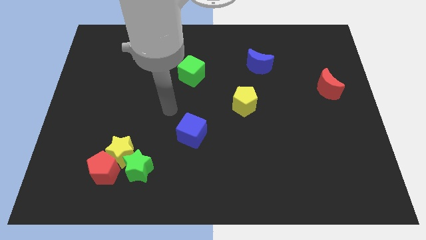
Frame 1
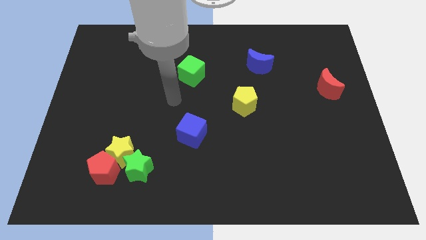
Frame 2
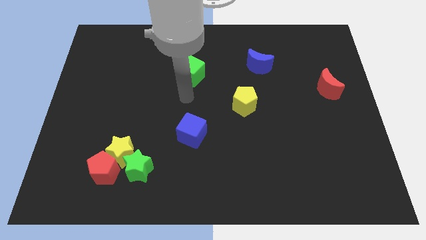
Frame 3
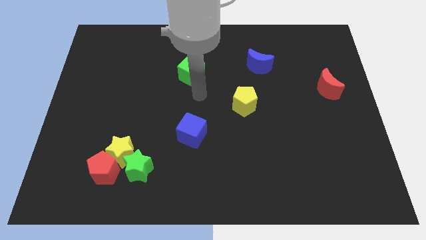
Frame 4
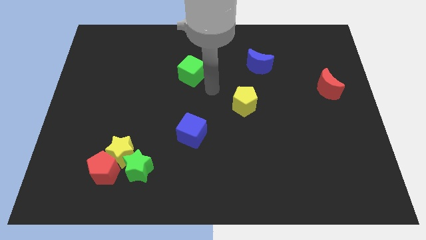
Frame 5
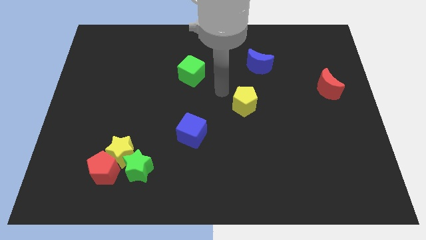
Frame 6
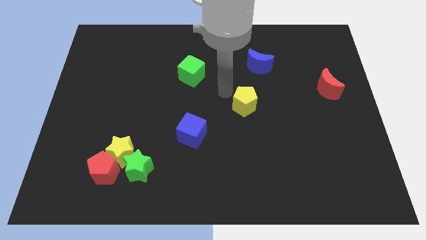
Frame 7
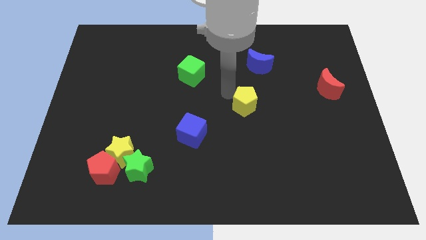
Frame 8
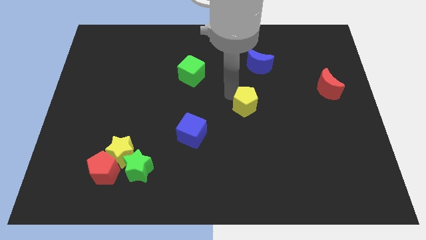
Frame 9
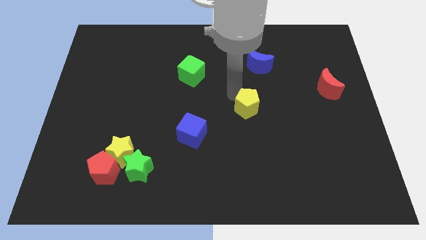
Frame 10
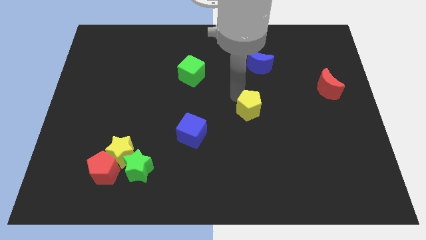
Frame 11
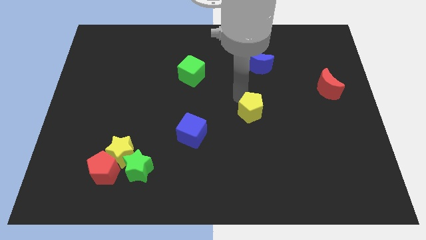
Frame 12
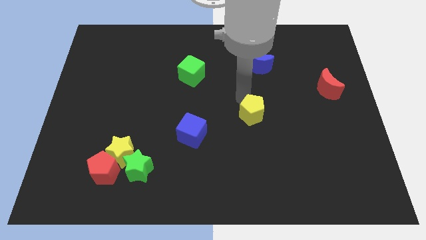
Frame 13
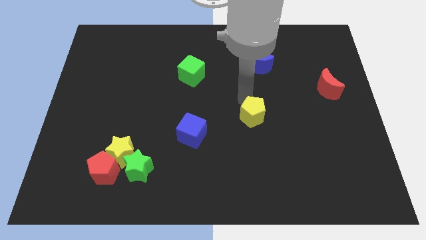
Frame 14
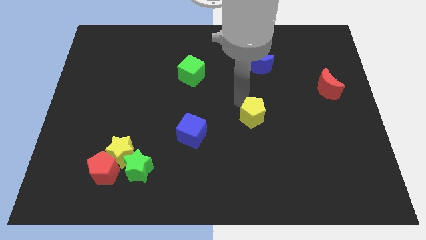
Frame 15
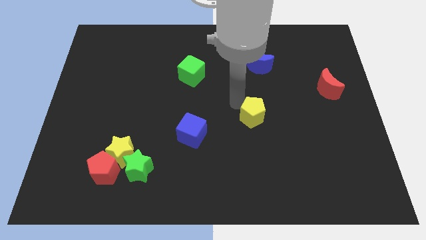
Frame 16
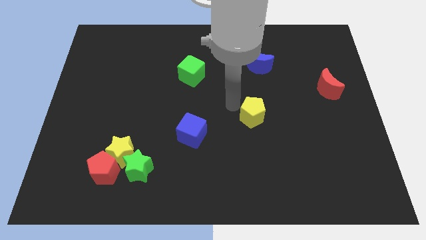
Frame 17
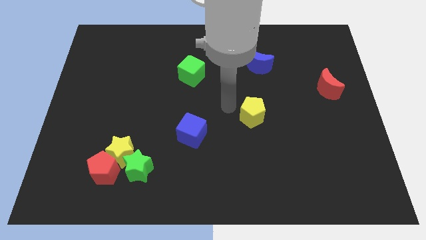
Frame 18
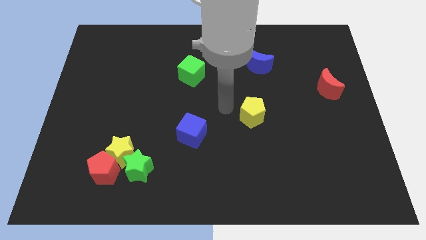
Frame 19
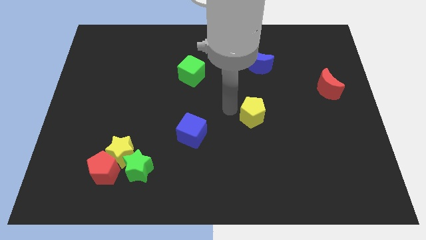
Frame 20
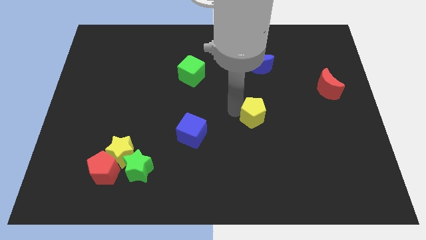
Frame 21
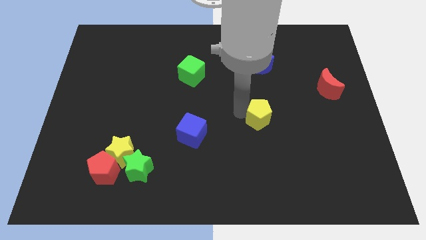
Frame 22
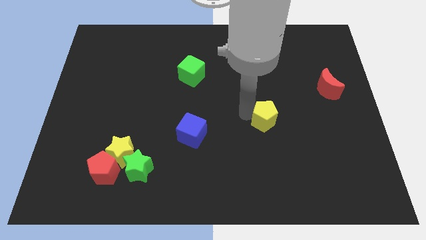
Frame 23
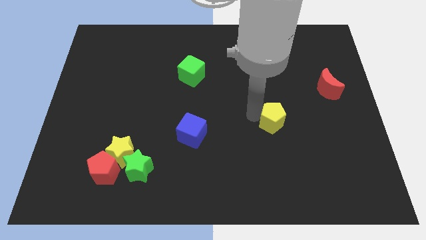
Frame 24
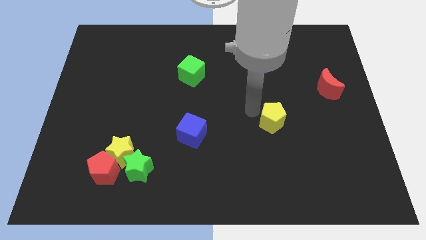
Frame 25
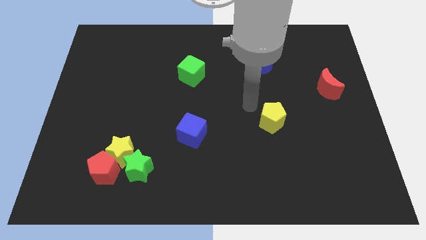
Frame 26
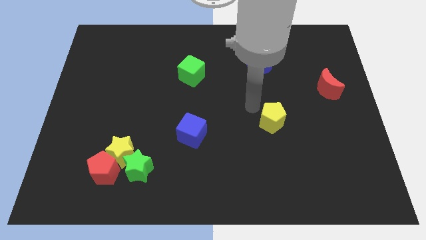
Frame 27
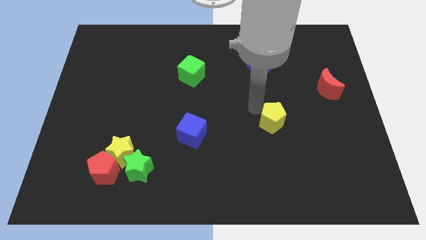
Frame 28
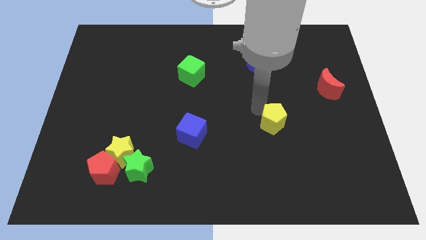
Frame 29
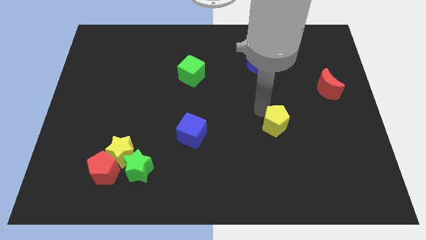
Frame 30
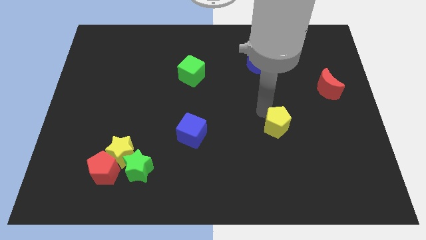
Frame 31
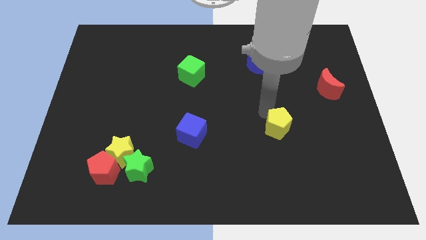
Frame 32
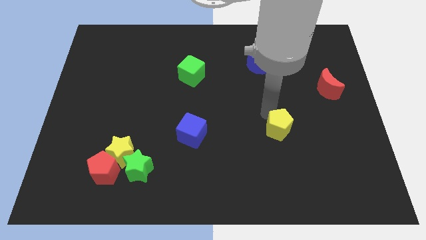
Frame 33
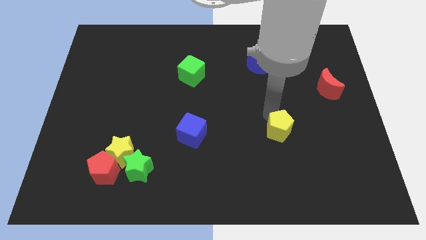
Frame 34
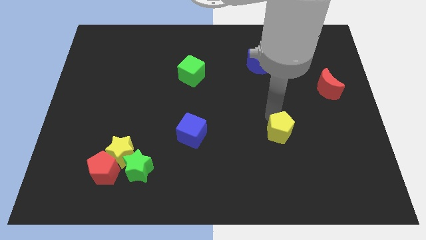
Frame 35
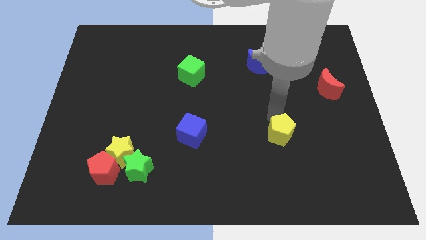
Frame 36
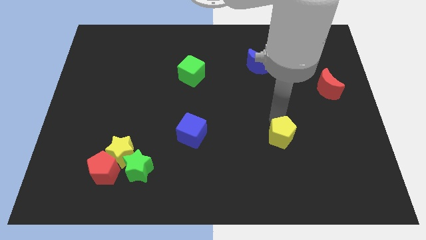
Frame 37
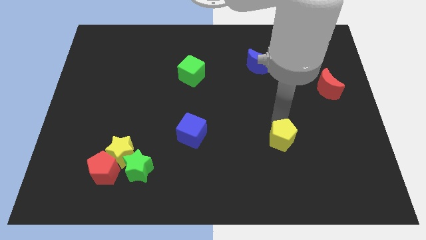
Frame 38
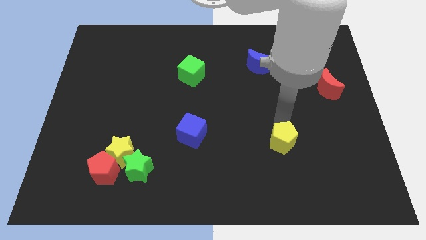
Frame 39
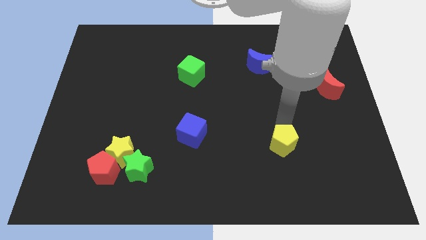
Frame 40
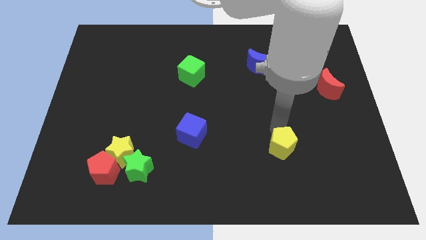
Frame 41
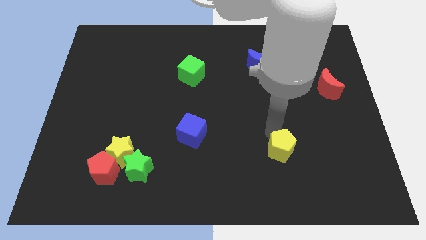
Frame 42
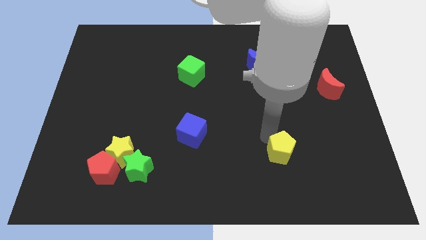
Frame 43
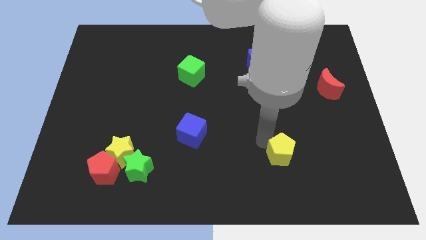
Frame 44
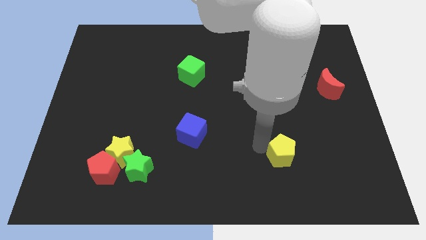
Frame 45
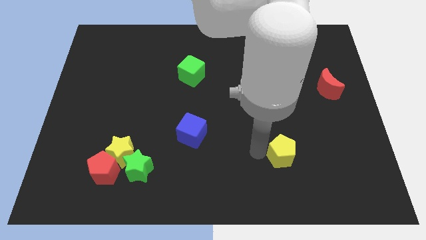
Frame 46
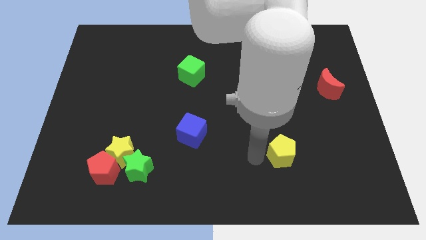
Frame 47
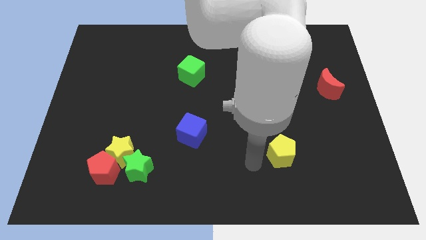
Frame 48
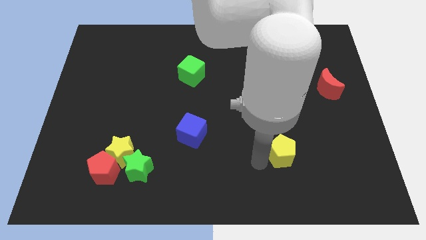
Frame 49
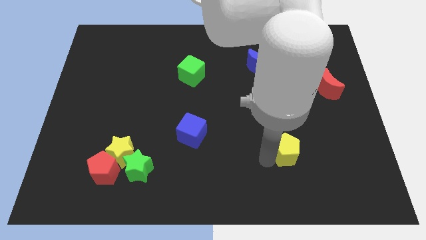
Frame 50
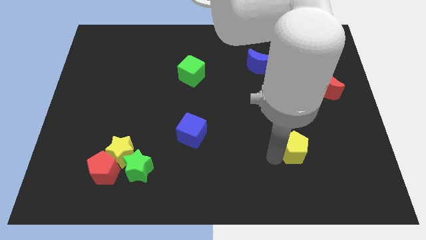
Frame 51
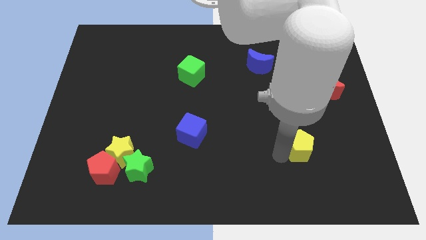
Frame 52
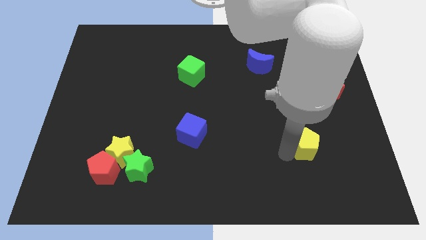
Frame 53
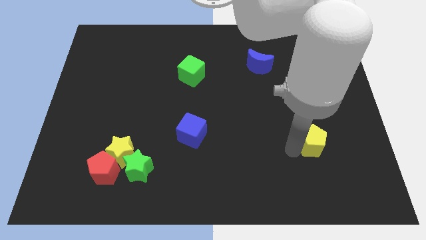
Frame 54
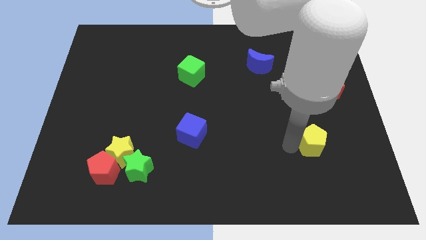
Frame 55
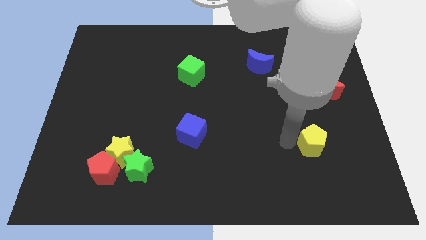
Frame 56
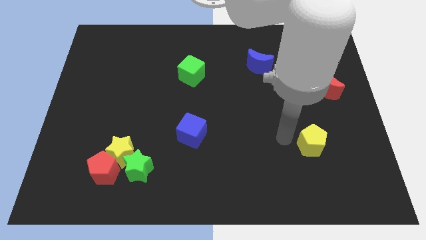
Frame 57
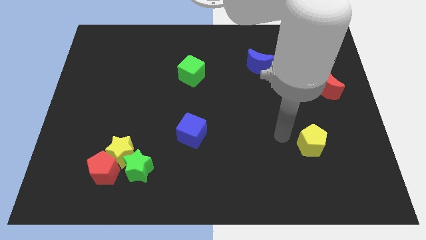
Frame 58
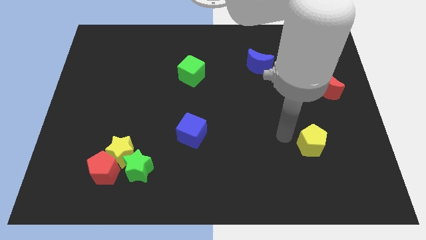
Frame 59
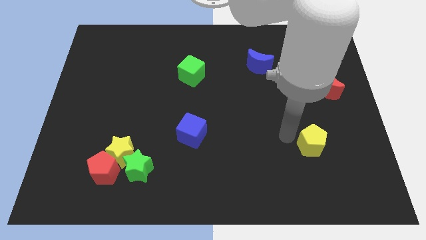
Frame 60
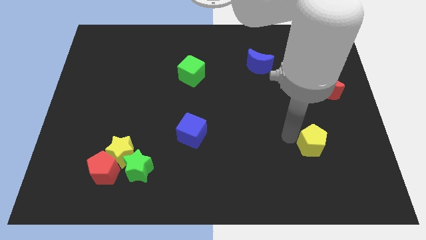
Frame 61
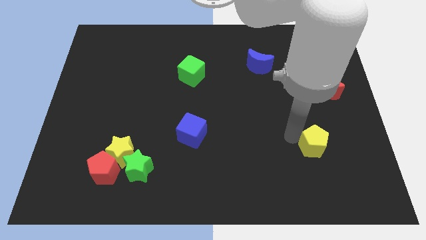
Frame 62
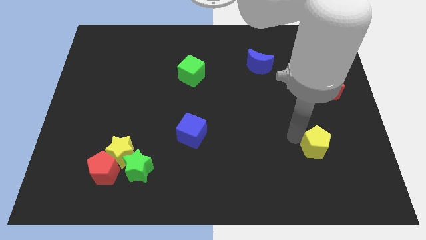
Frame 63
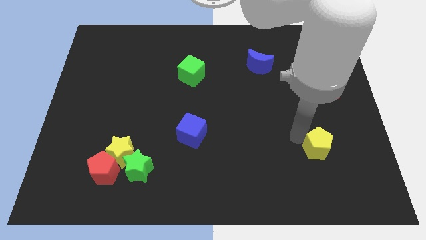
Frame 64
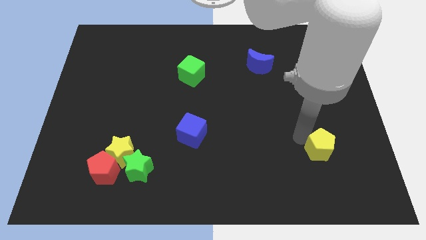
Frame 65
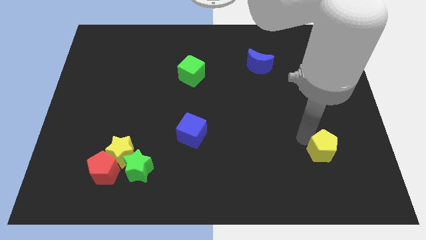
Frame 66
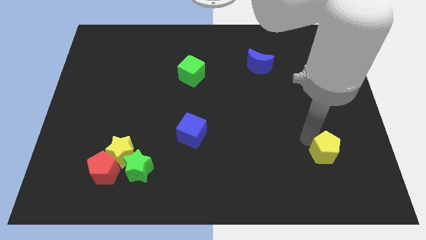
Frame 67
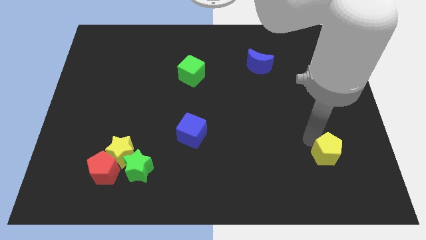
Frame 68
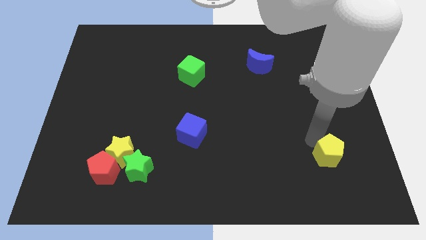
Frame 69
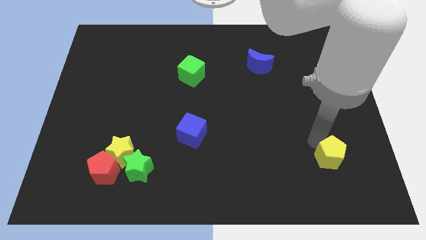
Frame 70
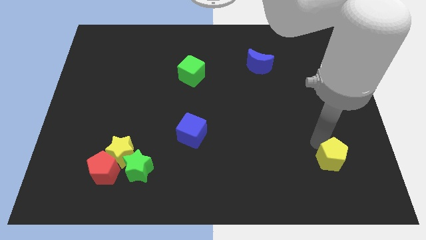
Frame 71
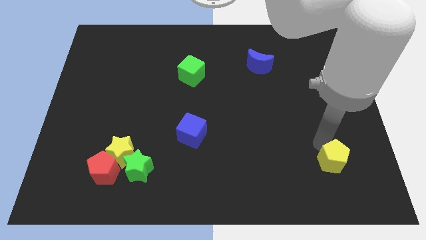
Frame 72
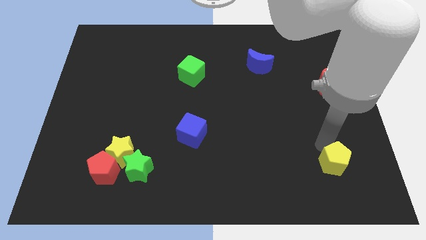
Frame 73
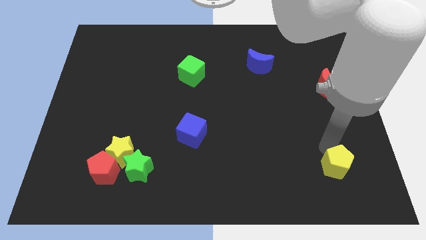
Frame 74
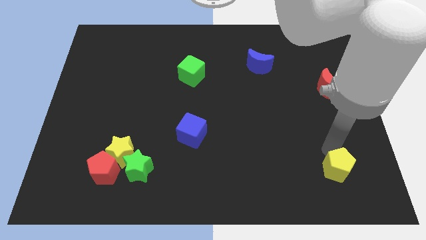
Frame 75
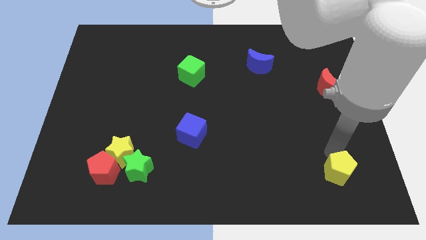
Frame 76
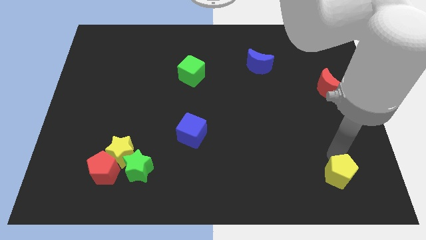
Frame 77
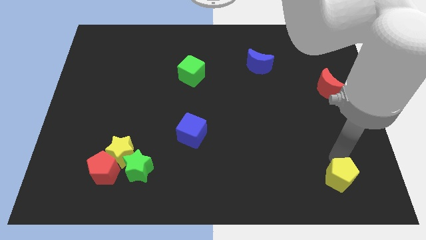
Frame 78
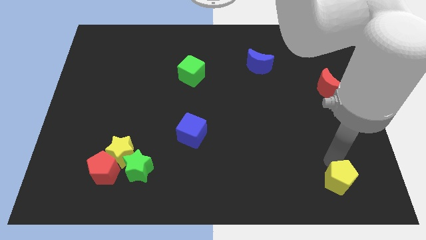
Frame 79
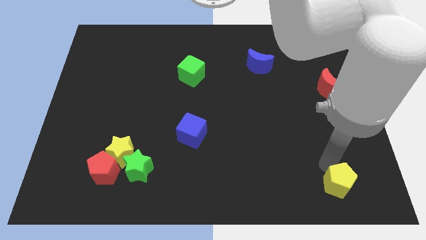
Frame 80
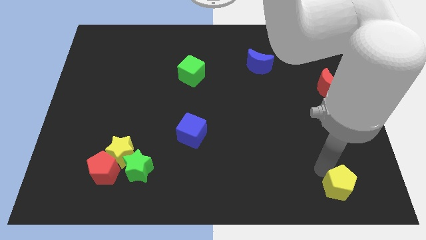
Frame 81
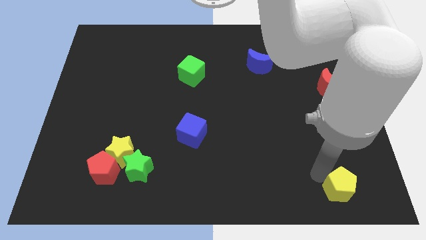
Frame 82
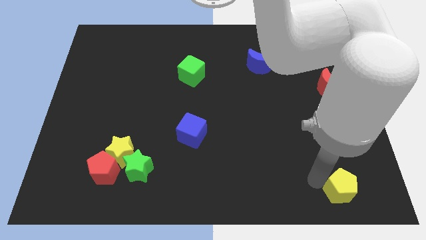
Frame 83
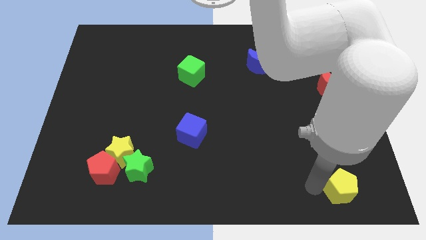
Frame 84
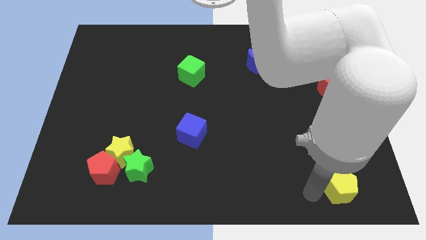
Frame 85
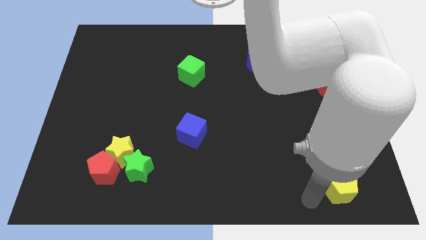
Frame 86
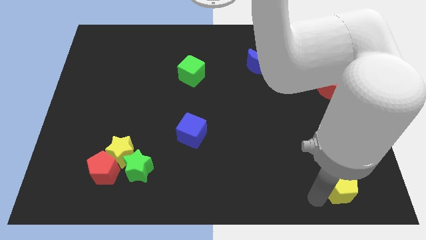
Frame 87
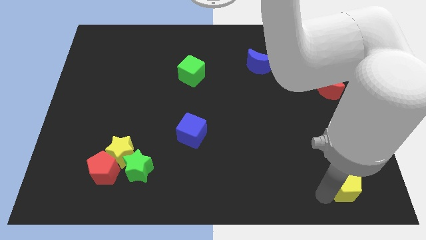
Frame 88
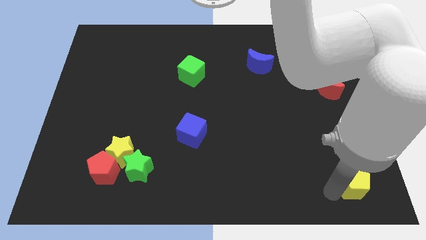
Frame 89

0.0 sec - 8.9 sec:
move the yellow pentagon to the bottom right of the board
